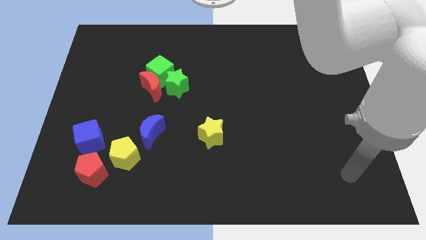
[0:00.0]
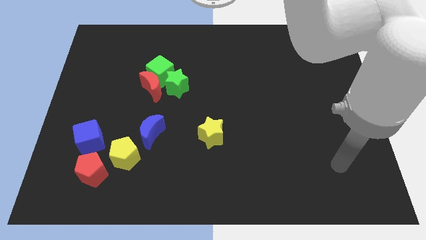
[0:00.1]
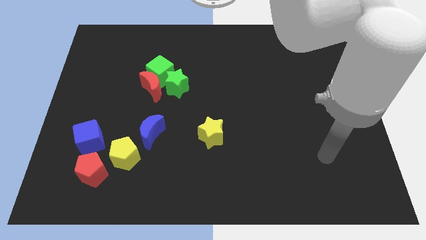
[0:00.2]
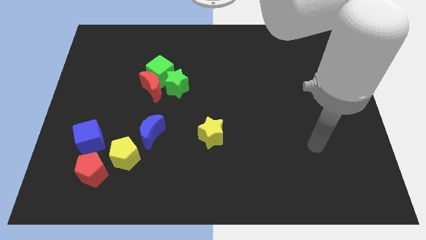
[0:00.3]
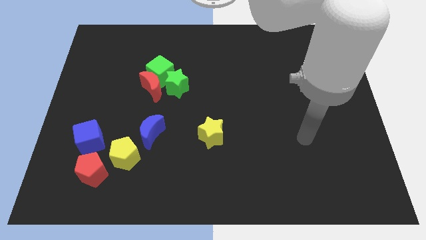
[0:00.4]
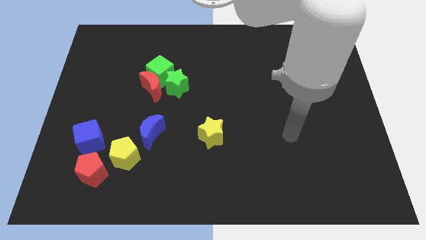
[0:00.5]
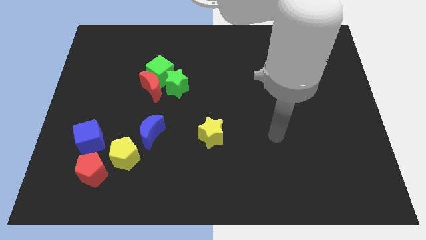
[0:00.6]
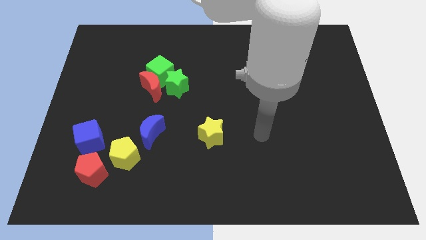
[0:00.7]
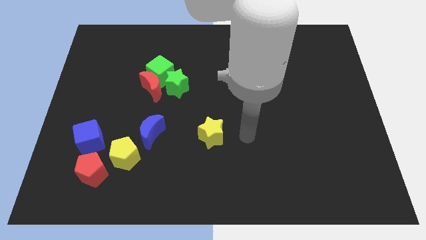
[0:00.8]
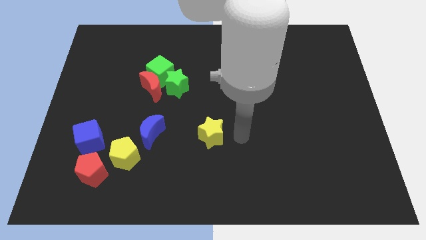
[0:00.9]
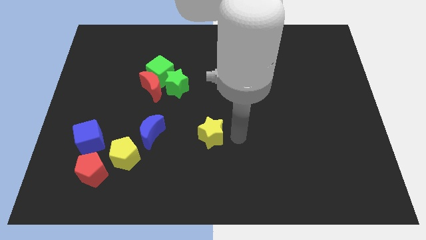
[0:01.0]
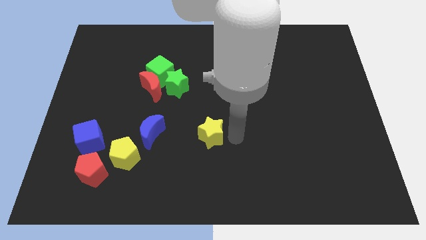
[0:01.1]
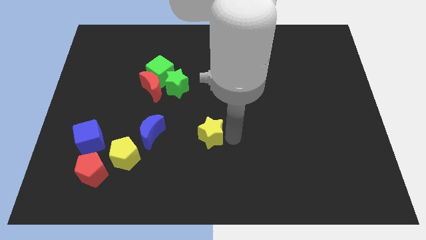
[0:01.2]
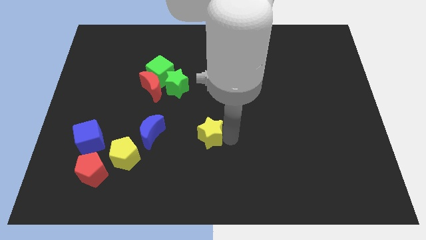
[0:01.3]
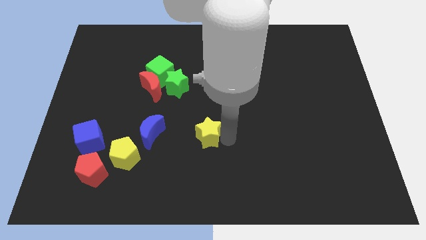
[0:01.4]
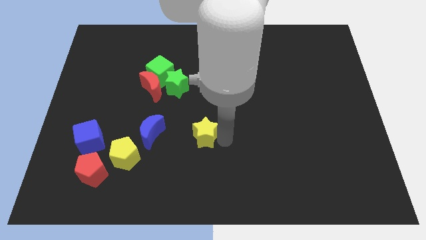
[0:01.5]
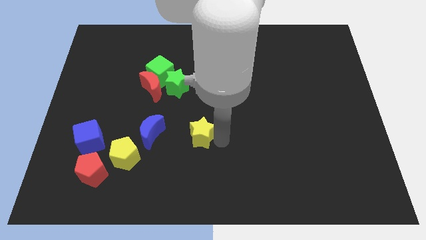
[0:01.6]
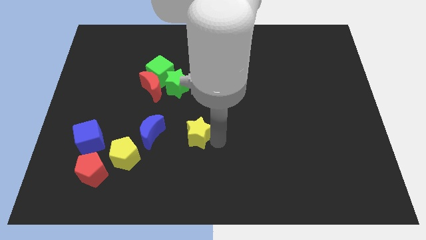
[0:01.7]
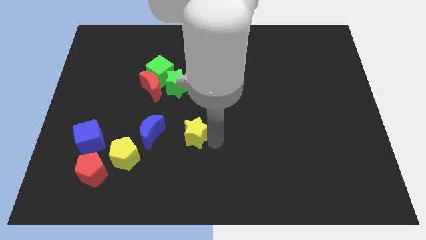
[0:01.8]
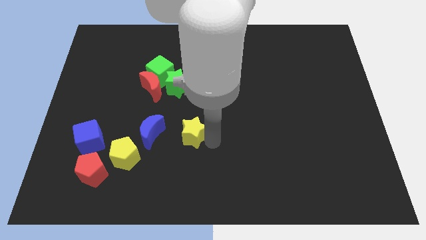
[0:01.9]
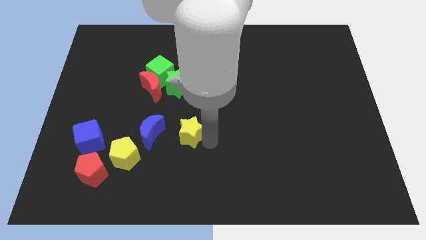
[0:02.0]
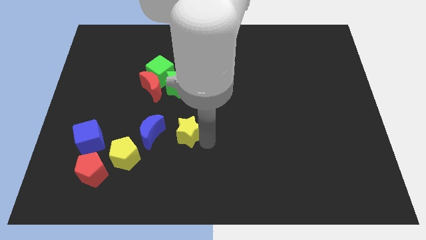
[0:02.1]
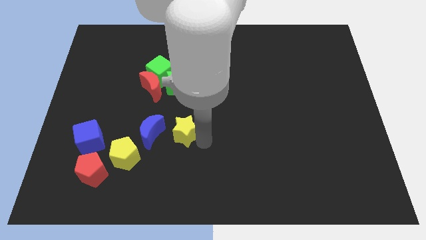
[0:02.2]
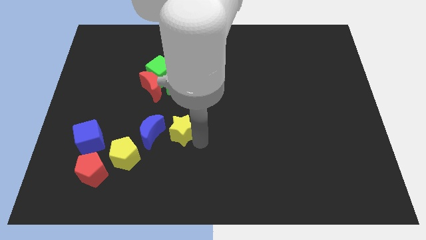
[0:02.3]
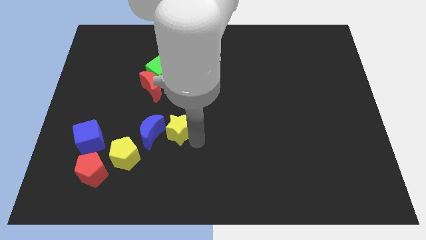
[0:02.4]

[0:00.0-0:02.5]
slightly move the yellow star left

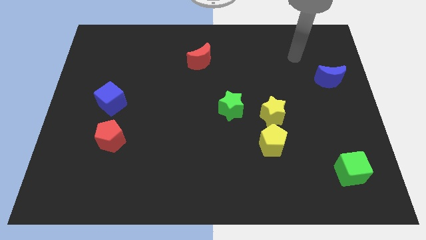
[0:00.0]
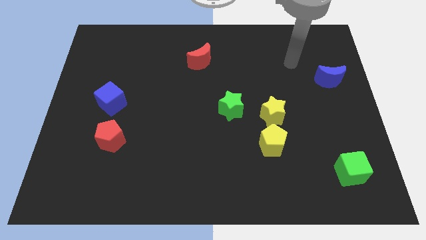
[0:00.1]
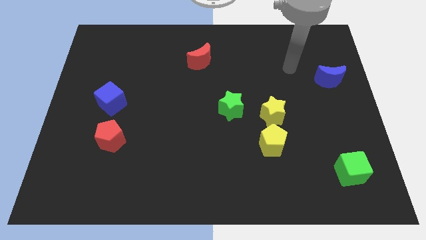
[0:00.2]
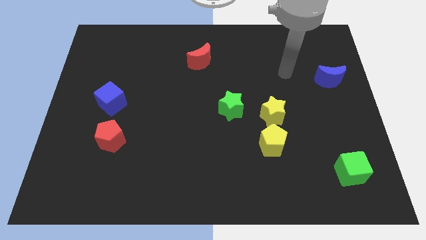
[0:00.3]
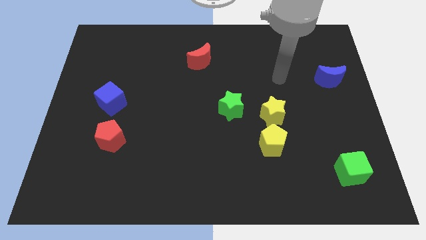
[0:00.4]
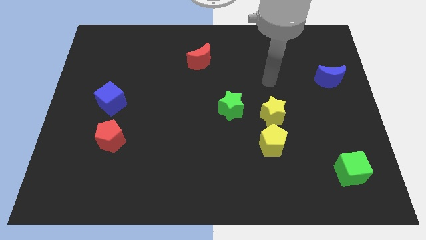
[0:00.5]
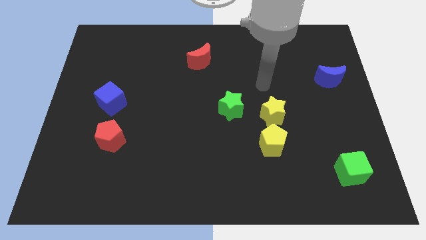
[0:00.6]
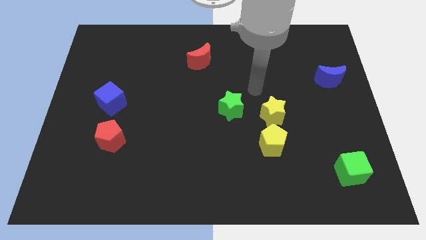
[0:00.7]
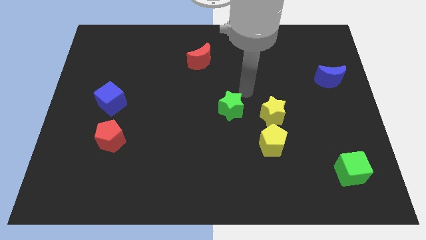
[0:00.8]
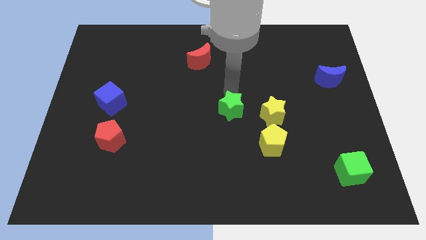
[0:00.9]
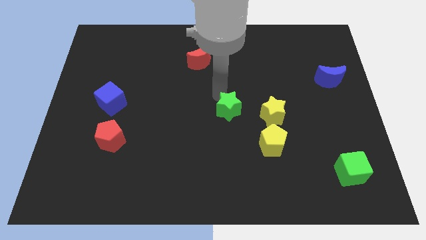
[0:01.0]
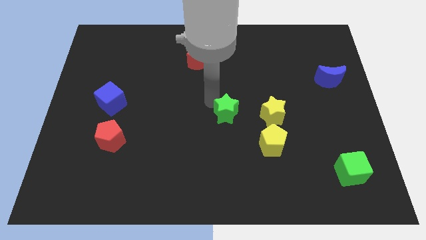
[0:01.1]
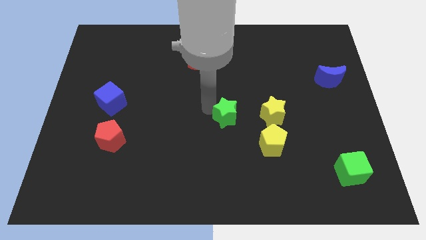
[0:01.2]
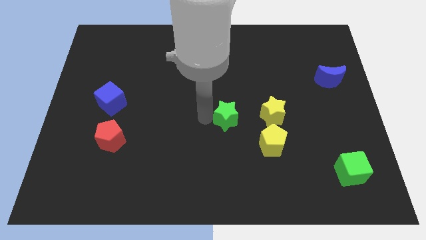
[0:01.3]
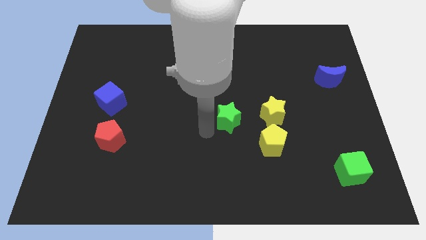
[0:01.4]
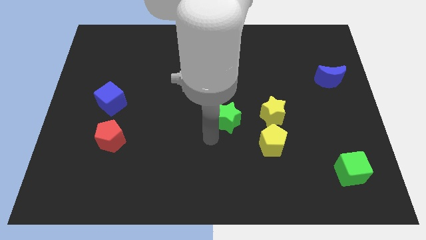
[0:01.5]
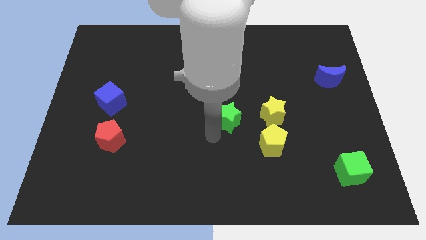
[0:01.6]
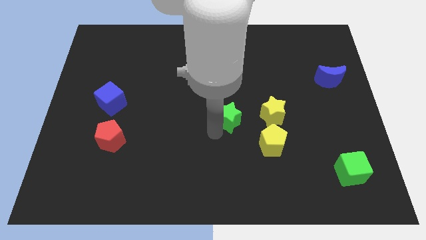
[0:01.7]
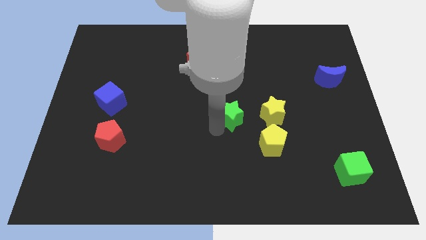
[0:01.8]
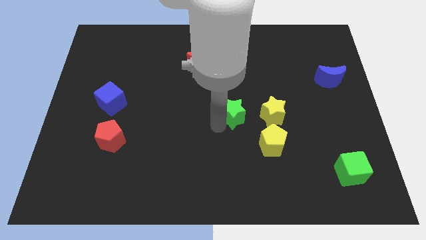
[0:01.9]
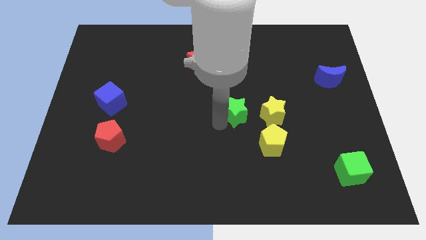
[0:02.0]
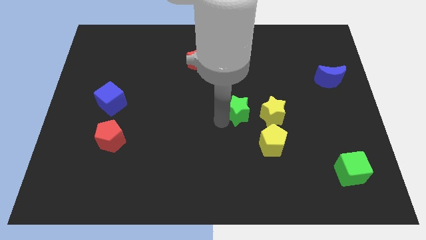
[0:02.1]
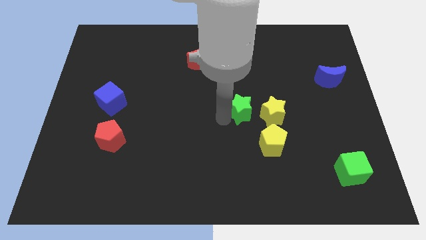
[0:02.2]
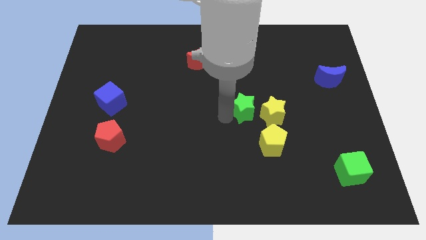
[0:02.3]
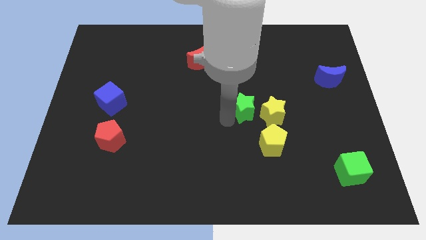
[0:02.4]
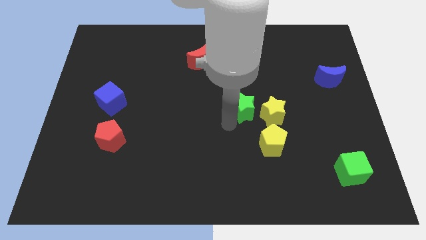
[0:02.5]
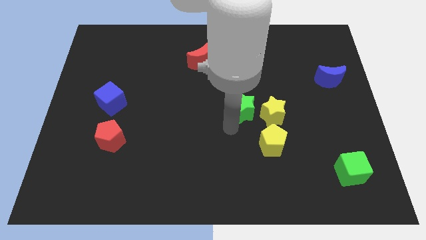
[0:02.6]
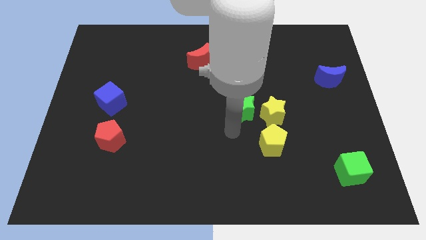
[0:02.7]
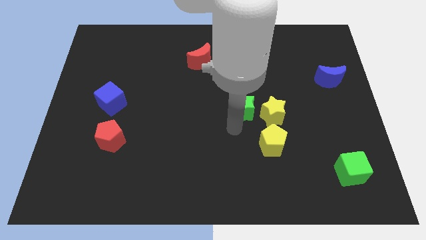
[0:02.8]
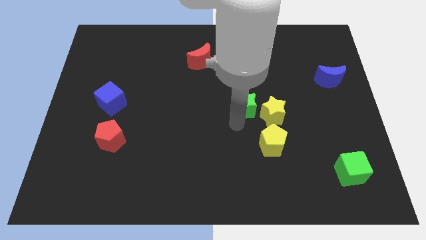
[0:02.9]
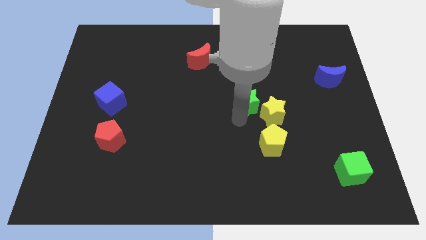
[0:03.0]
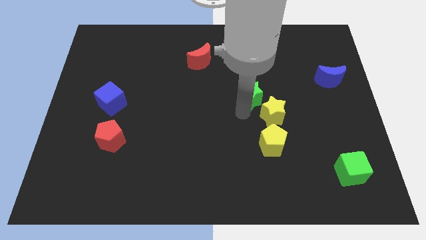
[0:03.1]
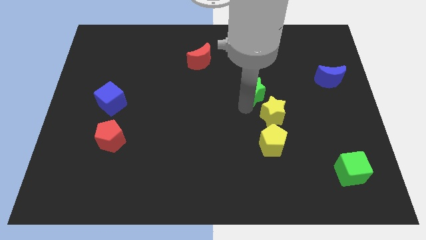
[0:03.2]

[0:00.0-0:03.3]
slide the green star somewhat up and to the right

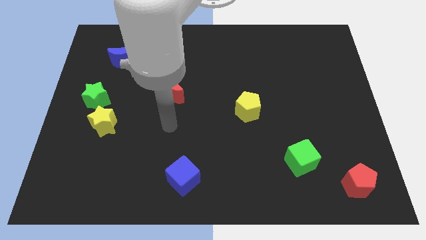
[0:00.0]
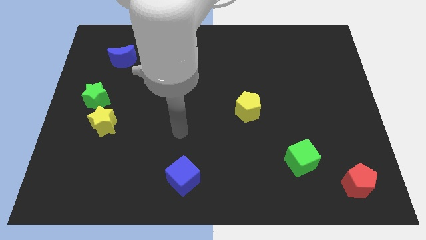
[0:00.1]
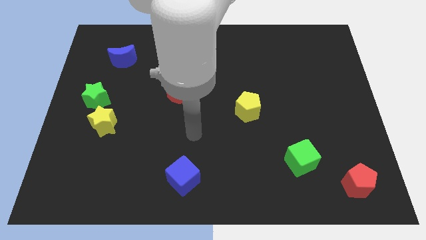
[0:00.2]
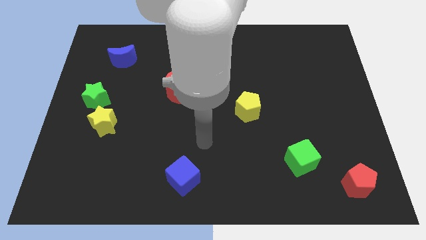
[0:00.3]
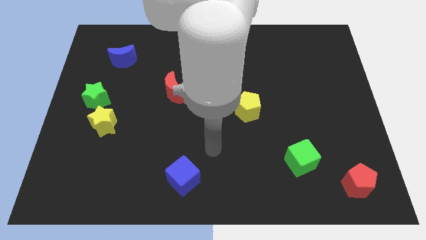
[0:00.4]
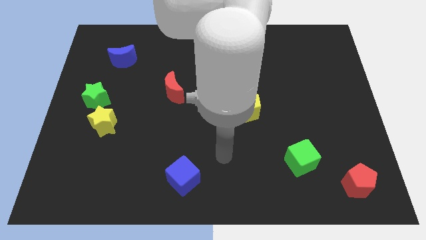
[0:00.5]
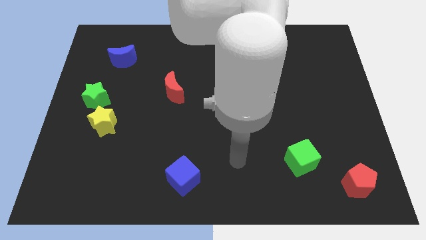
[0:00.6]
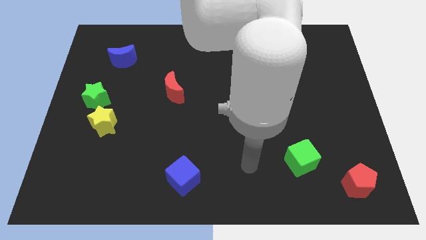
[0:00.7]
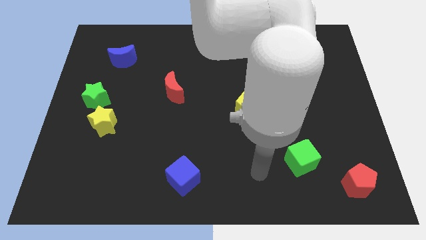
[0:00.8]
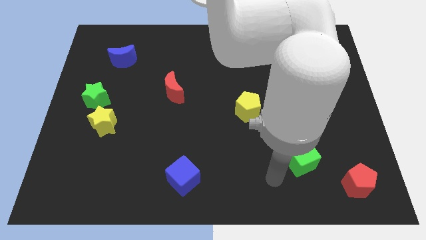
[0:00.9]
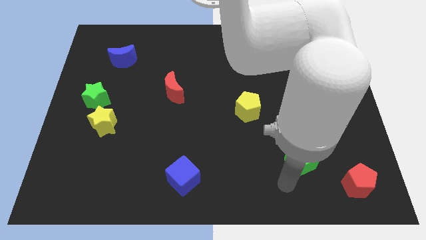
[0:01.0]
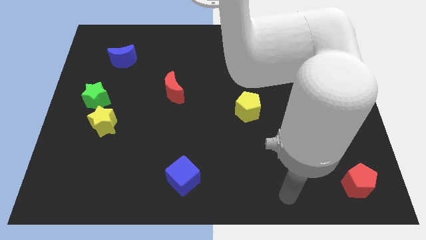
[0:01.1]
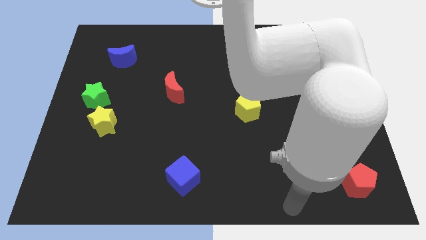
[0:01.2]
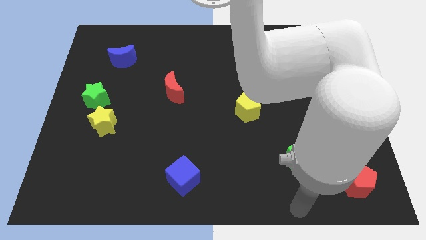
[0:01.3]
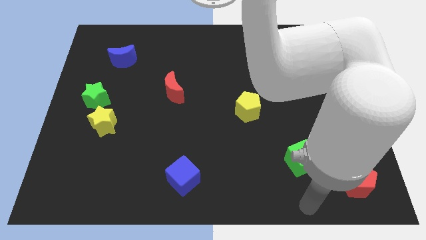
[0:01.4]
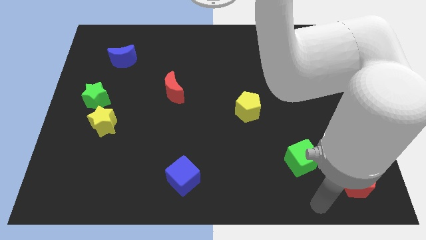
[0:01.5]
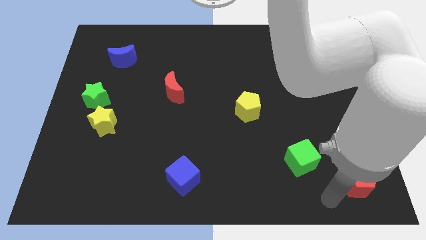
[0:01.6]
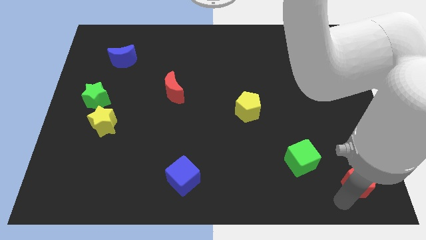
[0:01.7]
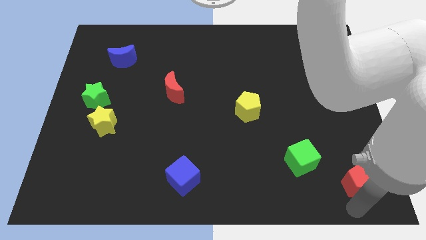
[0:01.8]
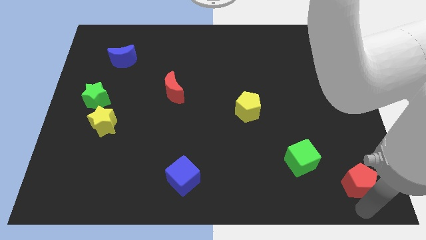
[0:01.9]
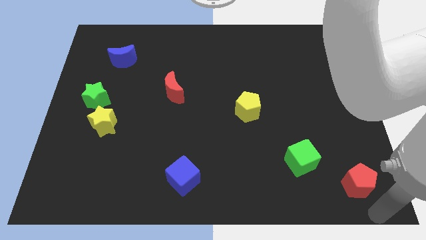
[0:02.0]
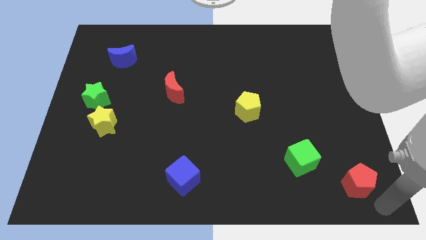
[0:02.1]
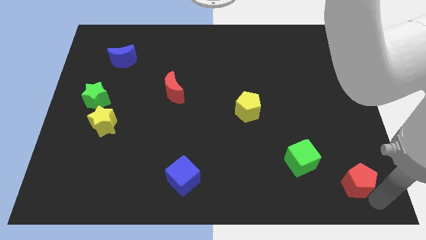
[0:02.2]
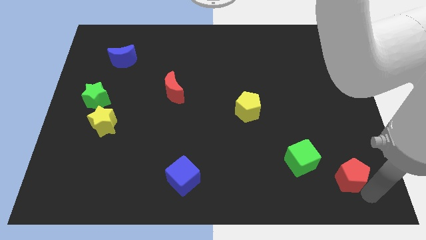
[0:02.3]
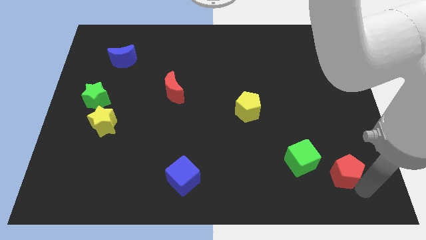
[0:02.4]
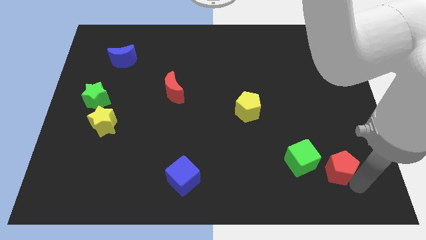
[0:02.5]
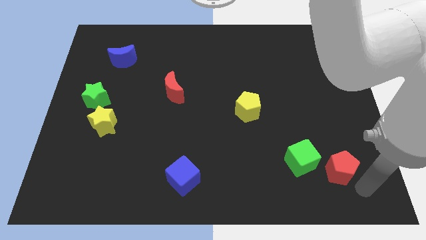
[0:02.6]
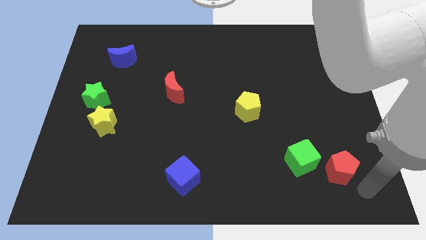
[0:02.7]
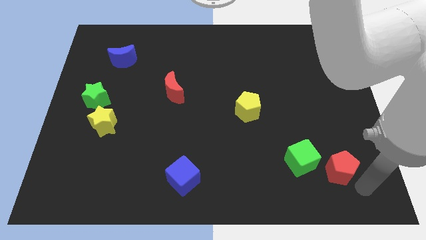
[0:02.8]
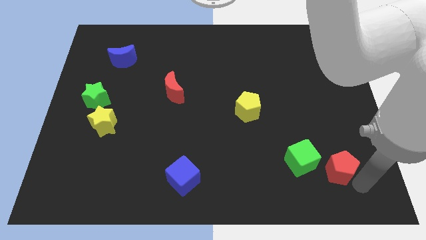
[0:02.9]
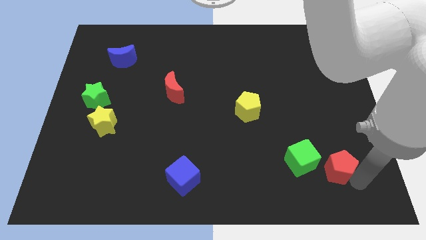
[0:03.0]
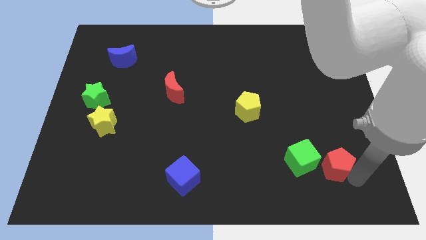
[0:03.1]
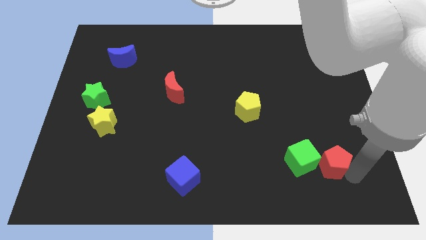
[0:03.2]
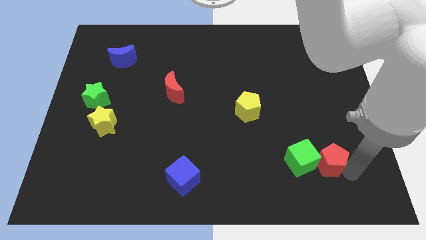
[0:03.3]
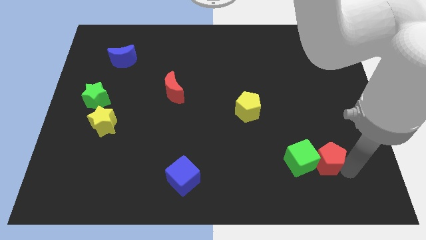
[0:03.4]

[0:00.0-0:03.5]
push the red pentagon somewhat upwards and then to the left
